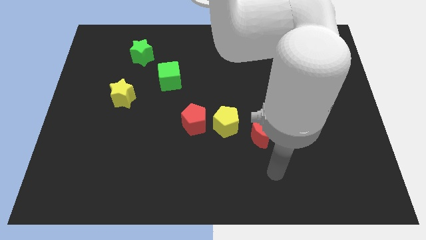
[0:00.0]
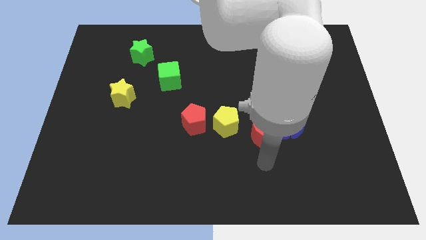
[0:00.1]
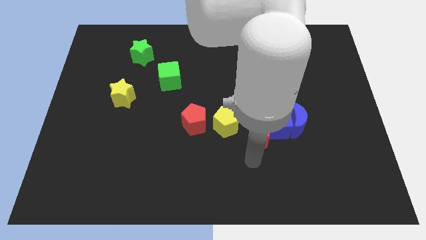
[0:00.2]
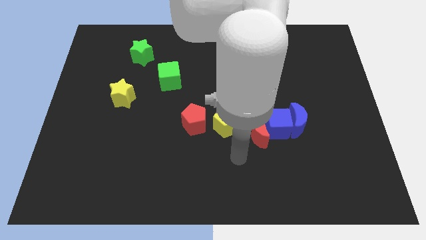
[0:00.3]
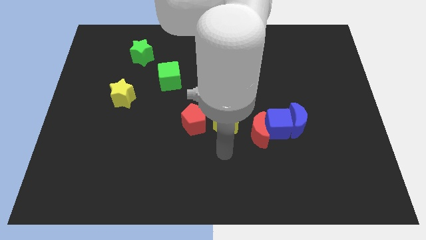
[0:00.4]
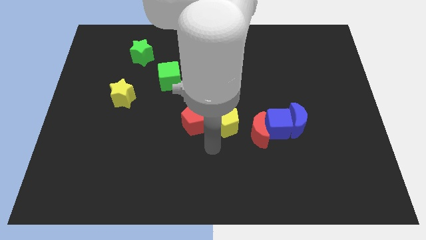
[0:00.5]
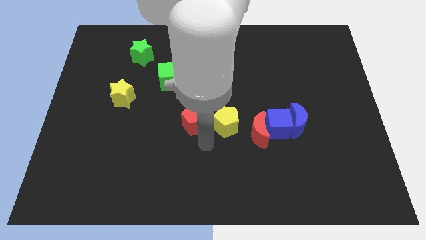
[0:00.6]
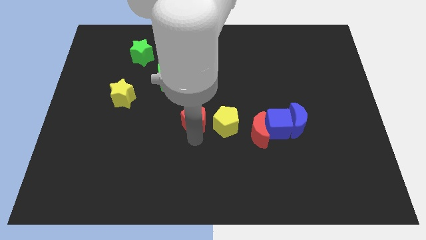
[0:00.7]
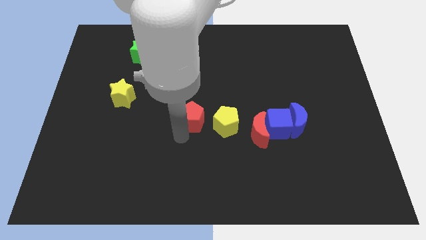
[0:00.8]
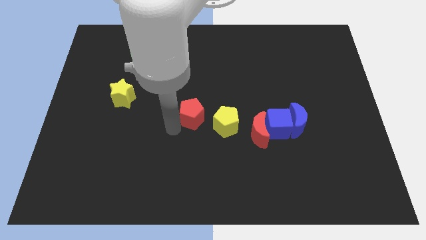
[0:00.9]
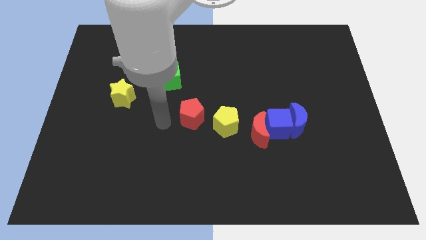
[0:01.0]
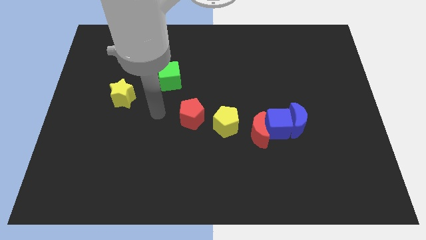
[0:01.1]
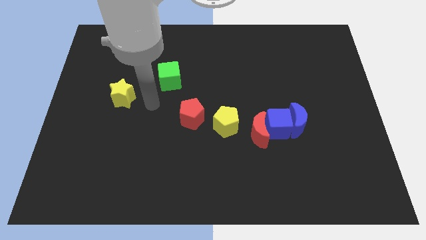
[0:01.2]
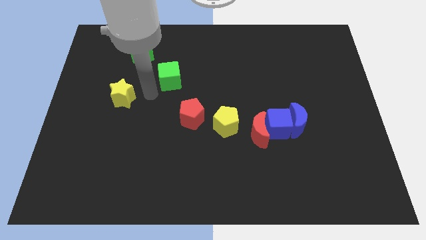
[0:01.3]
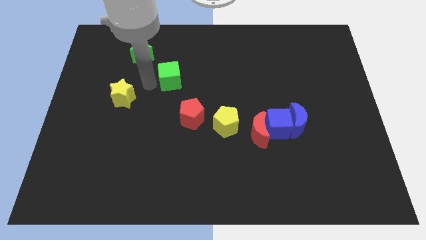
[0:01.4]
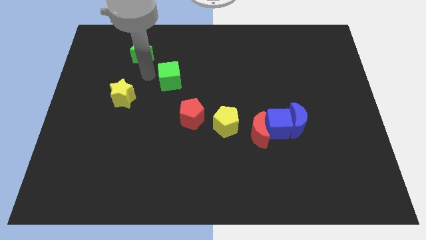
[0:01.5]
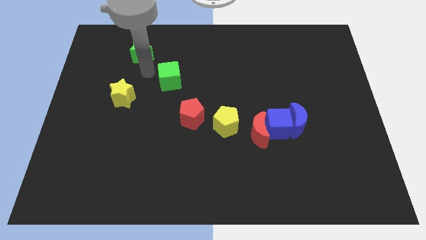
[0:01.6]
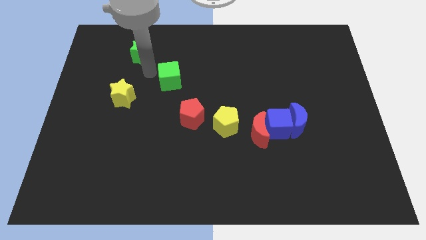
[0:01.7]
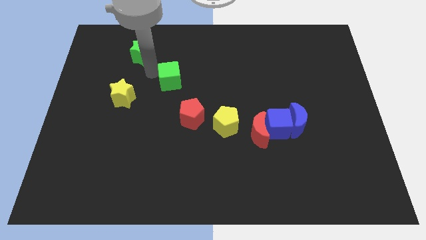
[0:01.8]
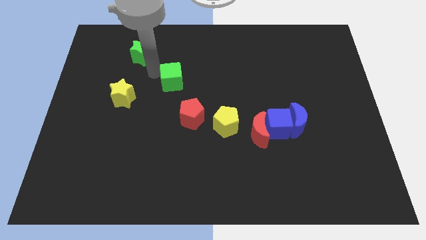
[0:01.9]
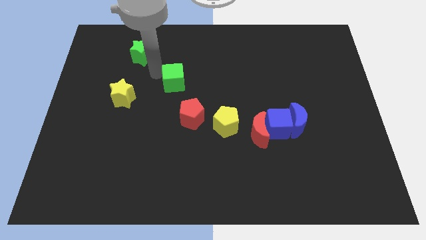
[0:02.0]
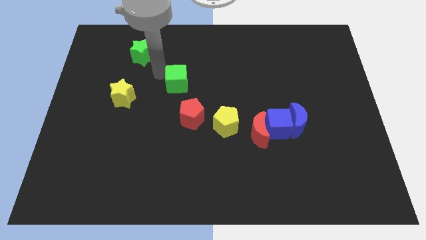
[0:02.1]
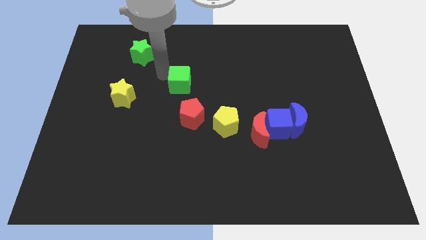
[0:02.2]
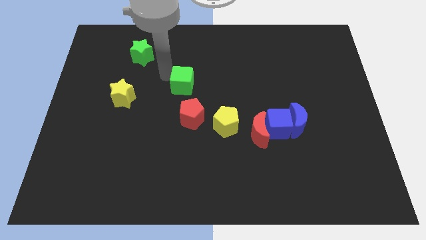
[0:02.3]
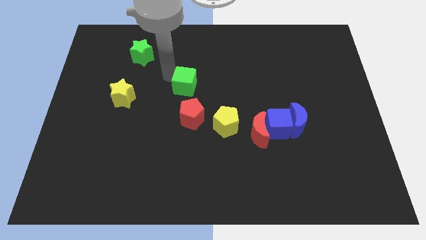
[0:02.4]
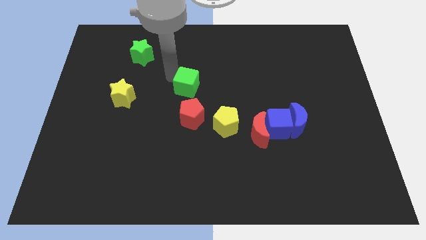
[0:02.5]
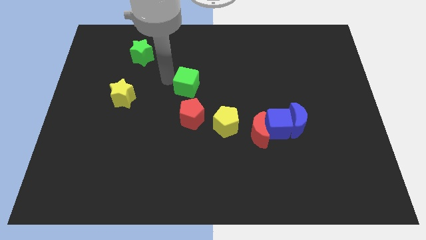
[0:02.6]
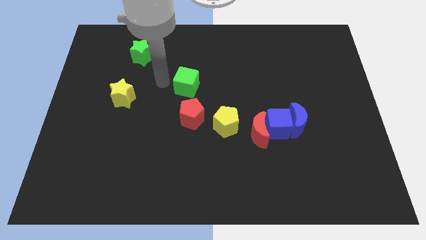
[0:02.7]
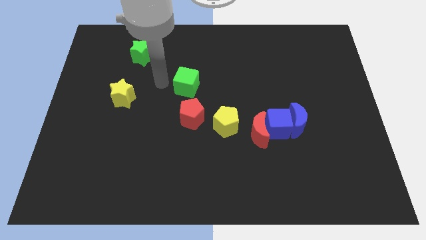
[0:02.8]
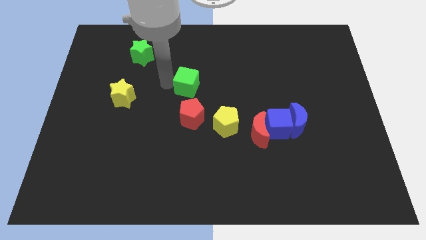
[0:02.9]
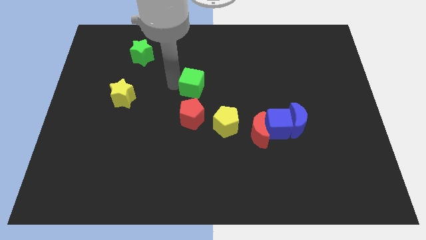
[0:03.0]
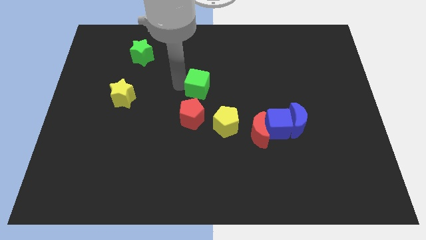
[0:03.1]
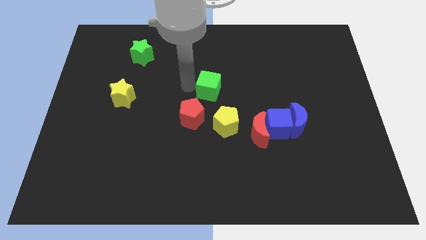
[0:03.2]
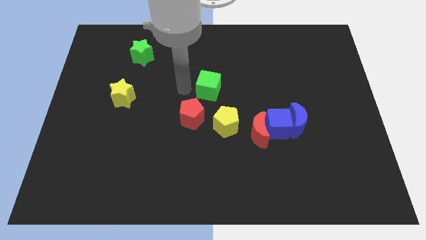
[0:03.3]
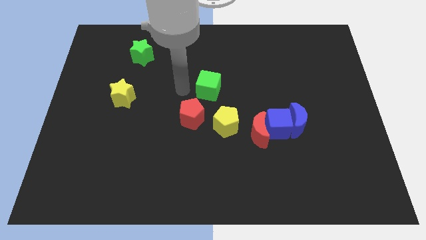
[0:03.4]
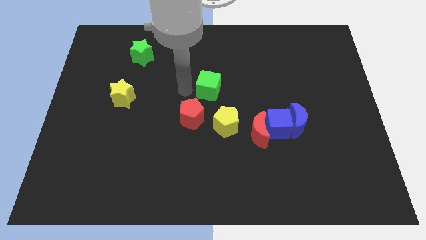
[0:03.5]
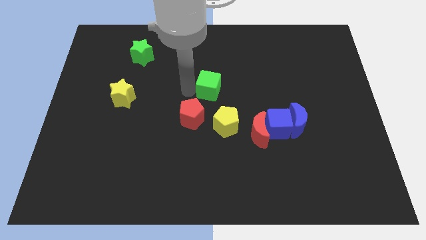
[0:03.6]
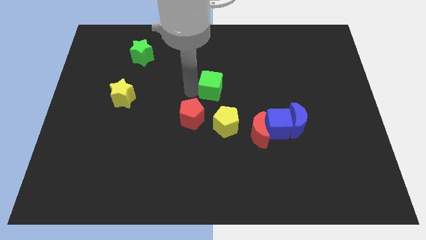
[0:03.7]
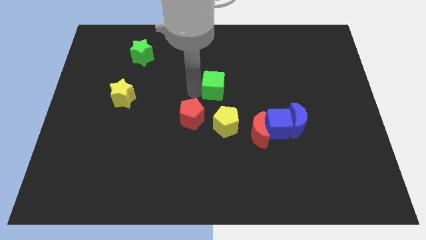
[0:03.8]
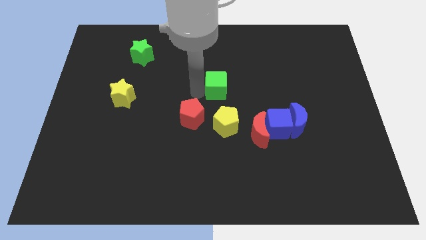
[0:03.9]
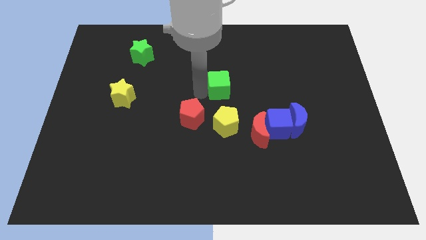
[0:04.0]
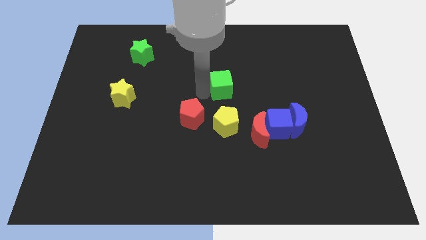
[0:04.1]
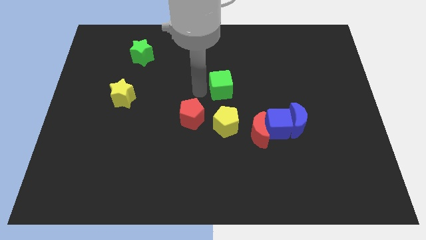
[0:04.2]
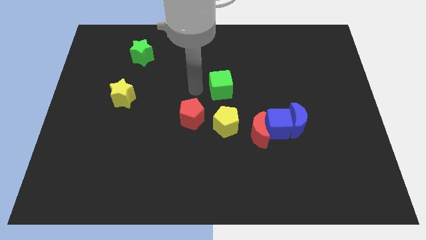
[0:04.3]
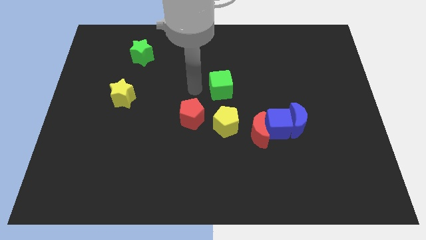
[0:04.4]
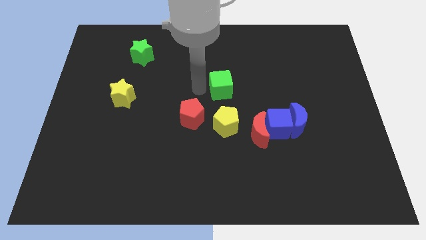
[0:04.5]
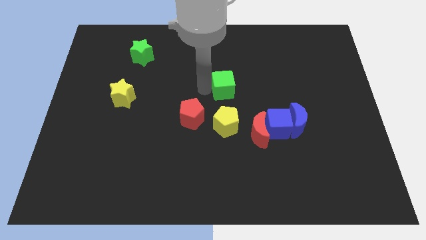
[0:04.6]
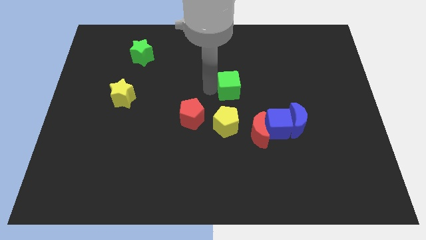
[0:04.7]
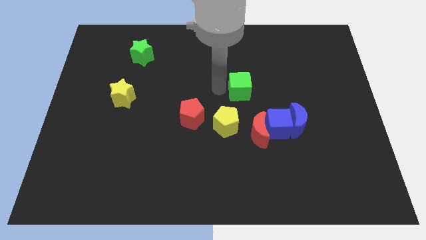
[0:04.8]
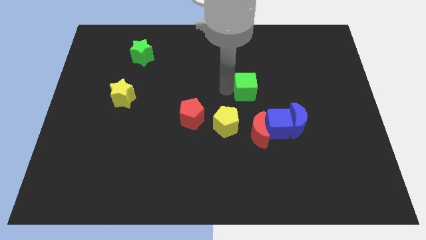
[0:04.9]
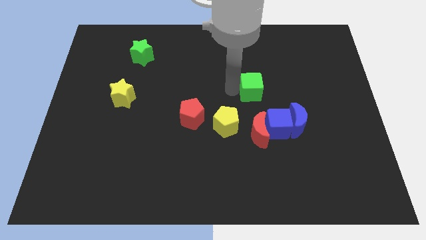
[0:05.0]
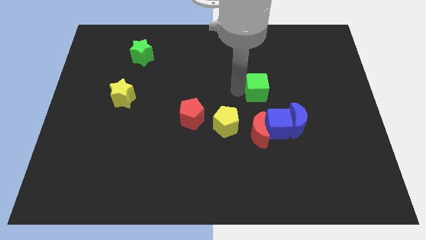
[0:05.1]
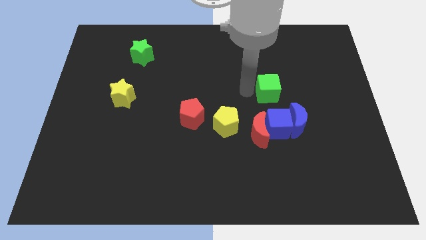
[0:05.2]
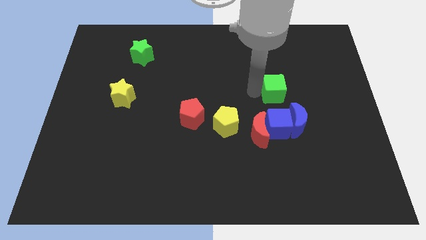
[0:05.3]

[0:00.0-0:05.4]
slide the green cube to the top side of the blue moon

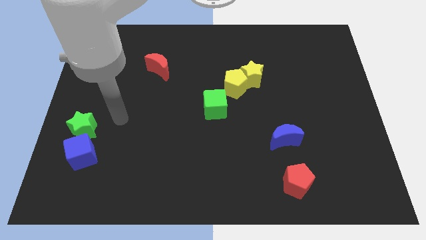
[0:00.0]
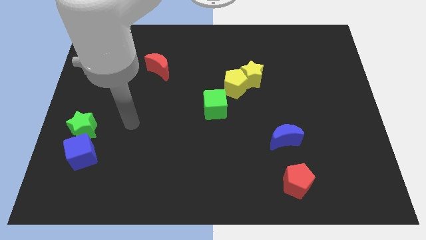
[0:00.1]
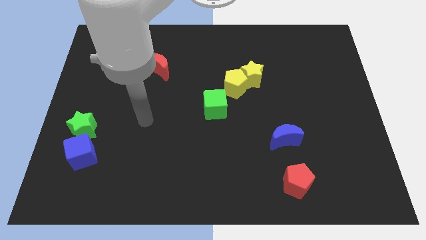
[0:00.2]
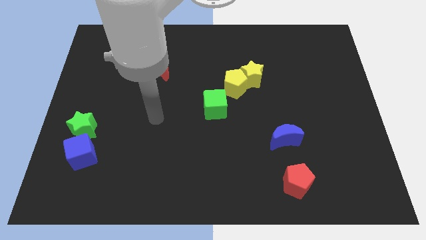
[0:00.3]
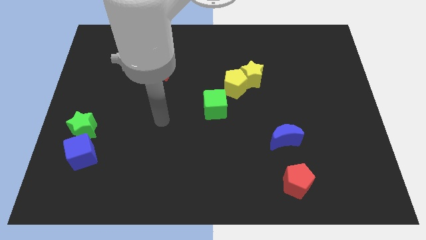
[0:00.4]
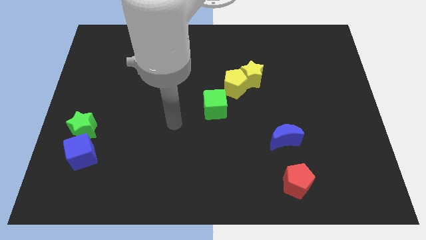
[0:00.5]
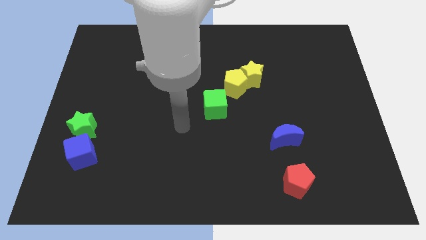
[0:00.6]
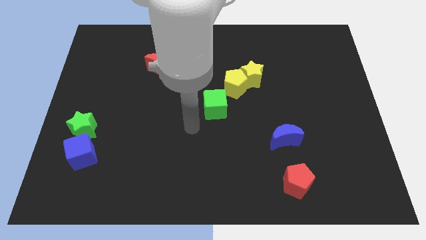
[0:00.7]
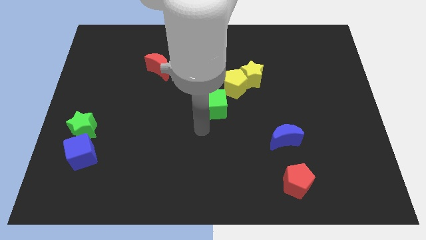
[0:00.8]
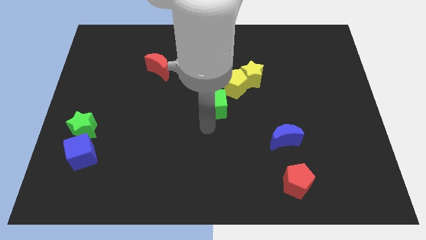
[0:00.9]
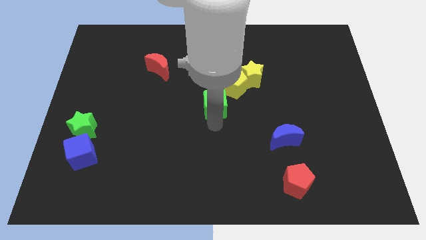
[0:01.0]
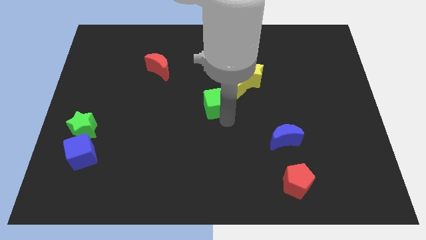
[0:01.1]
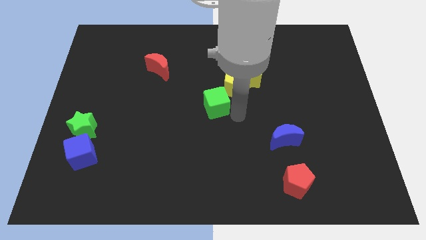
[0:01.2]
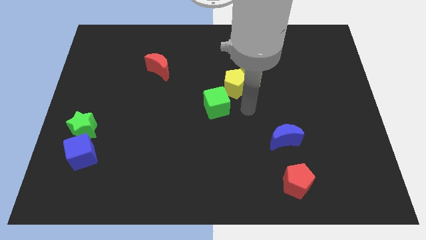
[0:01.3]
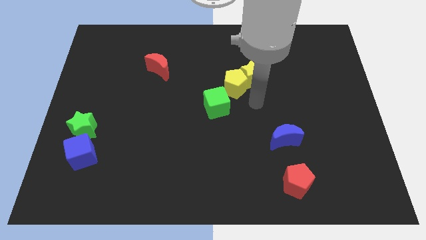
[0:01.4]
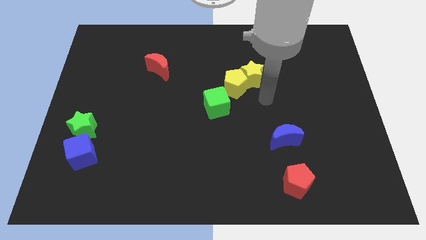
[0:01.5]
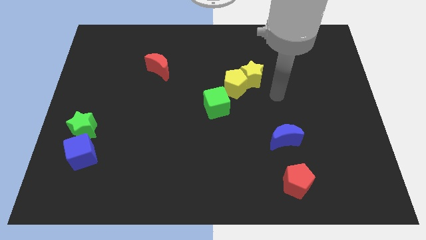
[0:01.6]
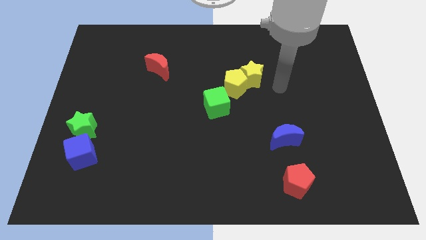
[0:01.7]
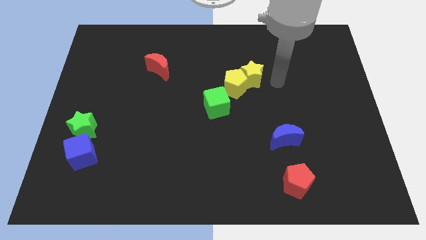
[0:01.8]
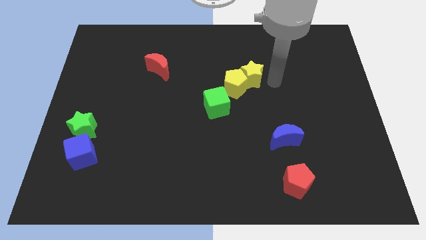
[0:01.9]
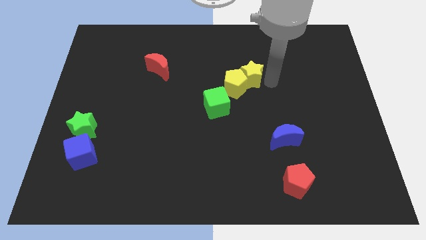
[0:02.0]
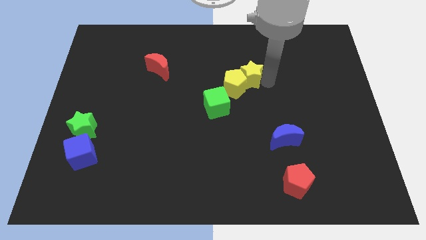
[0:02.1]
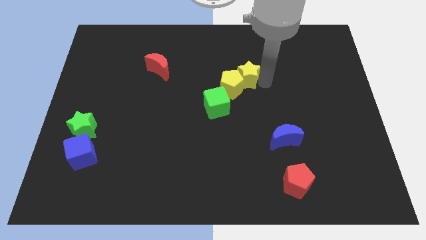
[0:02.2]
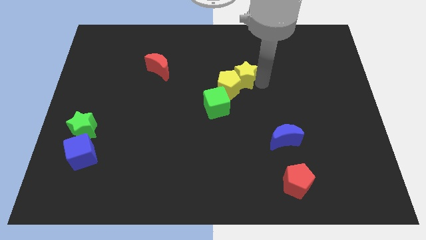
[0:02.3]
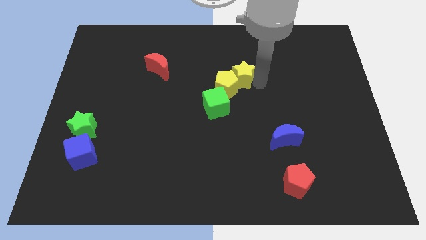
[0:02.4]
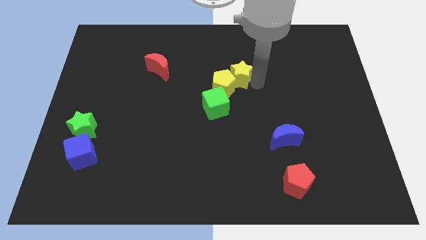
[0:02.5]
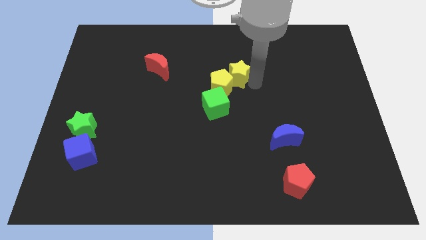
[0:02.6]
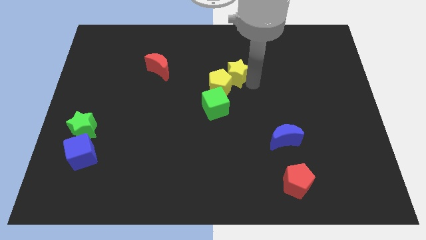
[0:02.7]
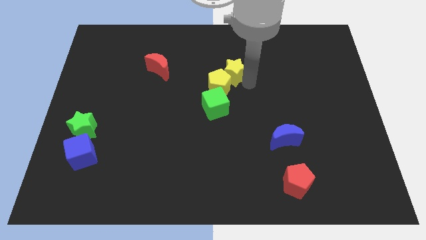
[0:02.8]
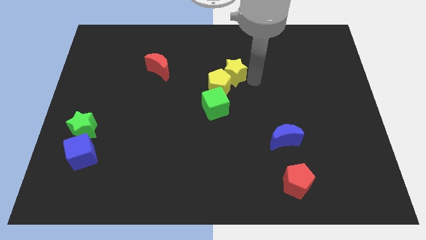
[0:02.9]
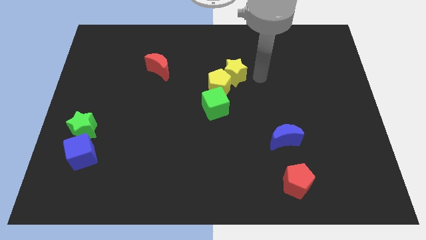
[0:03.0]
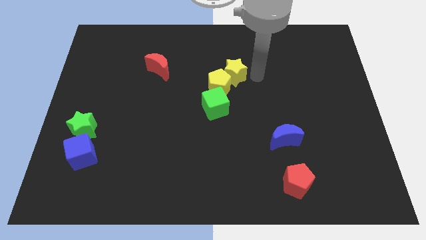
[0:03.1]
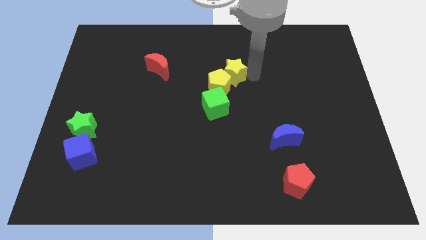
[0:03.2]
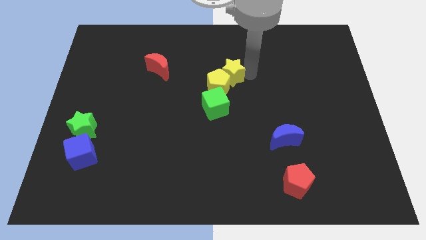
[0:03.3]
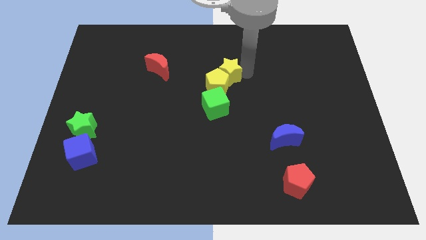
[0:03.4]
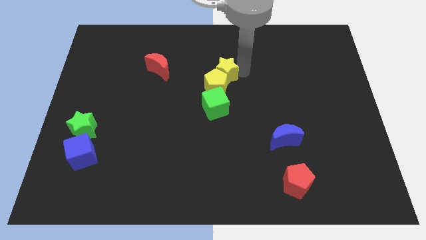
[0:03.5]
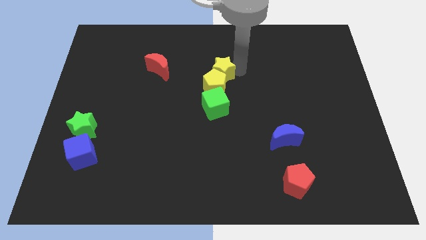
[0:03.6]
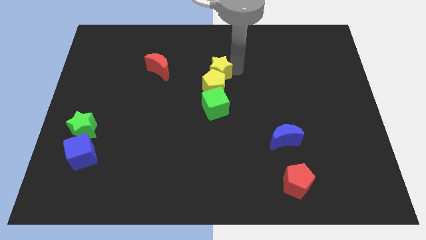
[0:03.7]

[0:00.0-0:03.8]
push the yellow star diagonally up and to the left of the yellow pentagon
